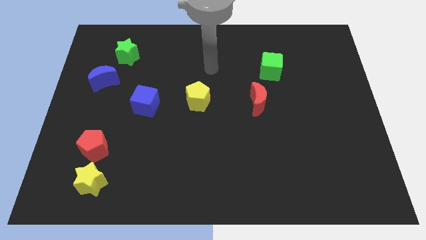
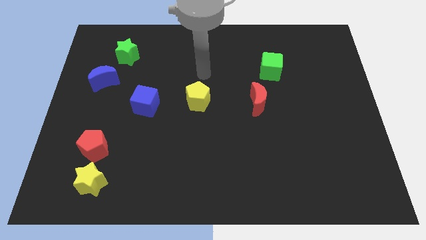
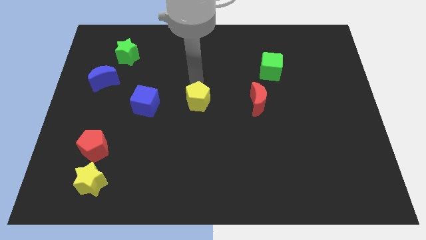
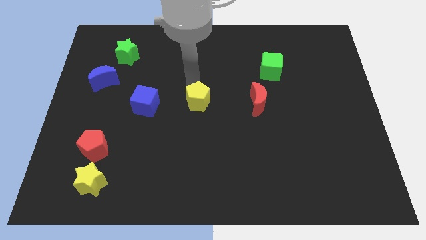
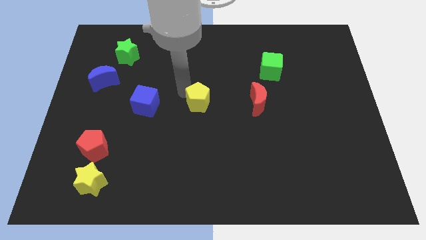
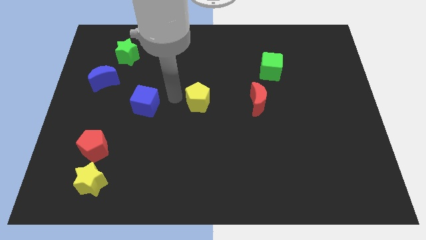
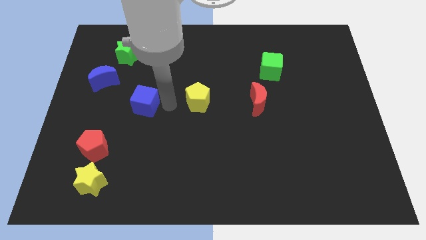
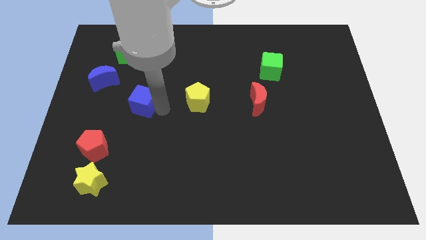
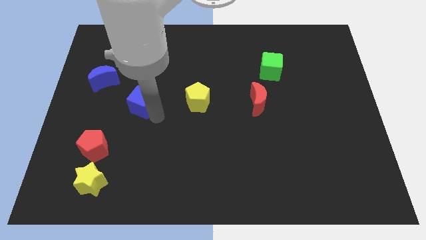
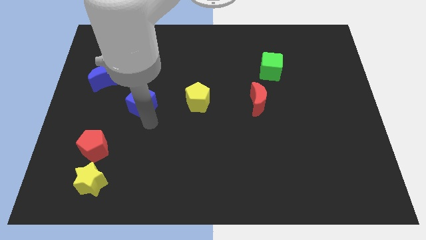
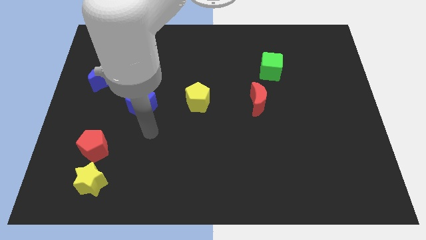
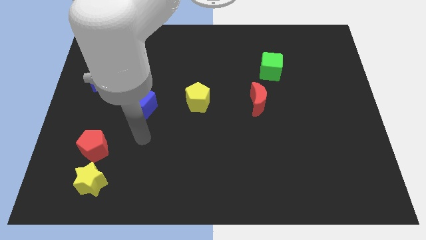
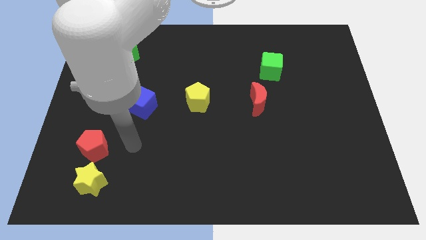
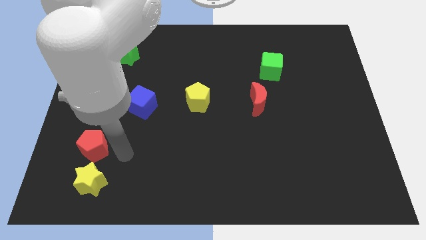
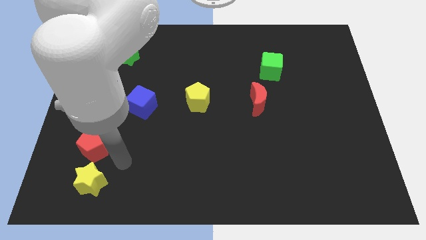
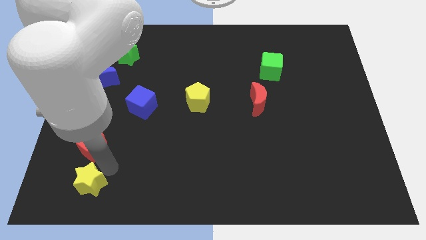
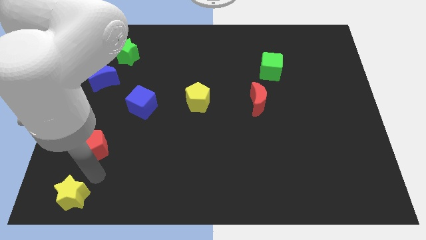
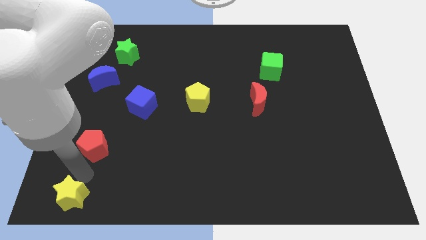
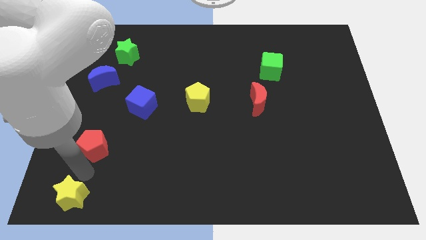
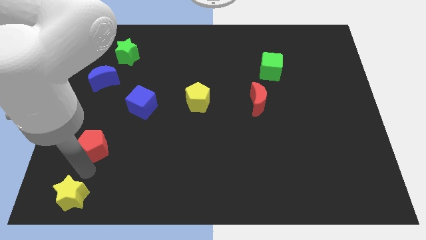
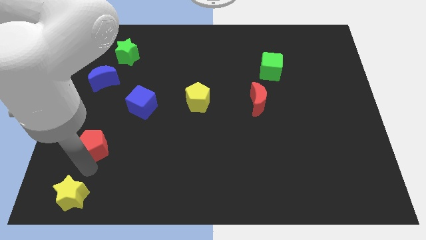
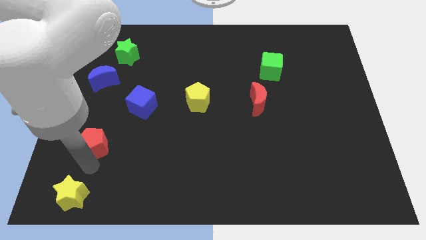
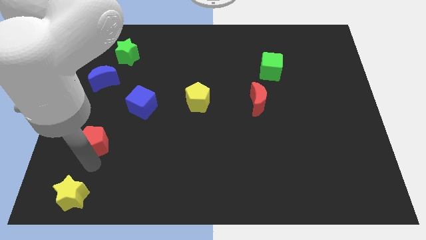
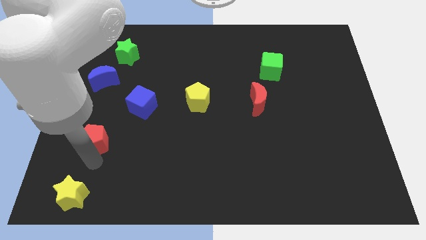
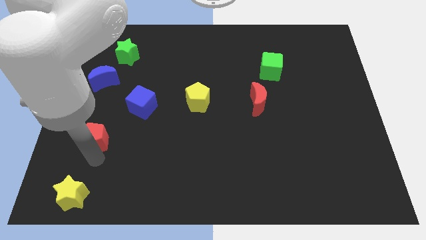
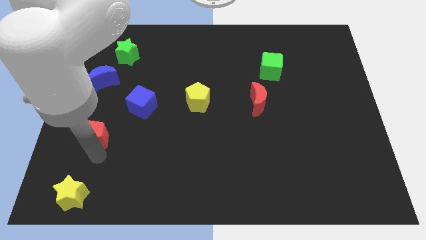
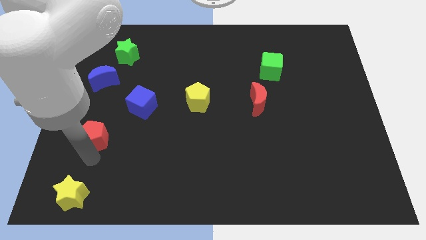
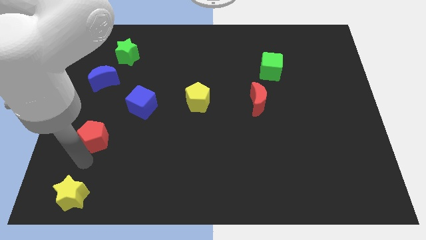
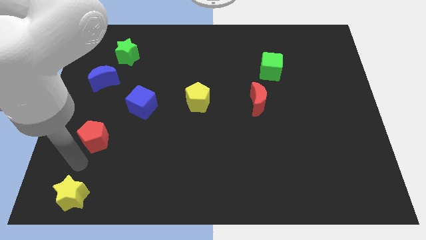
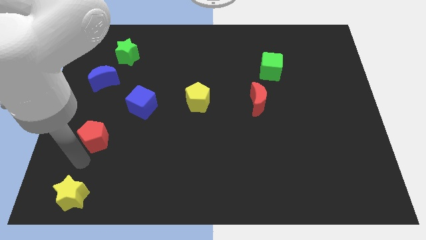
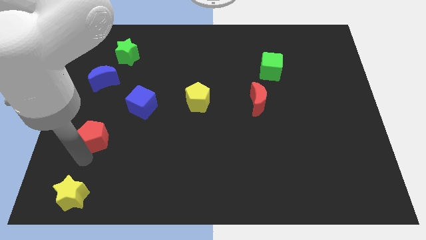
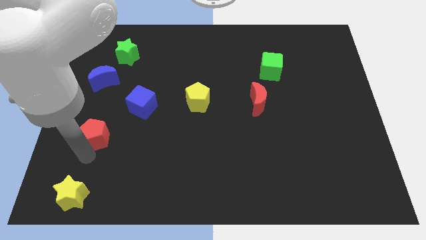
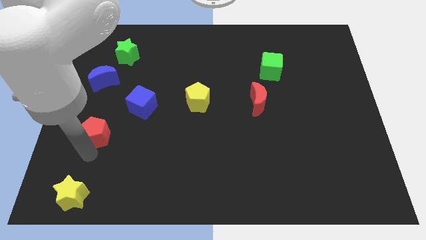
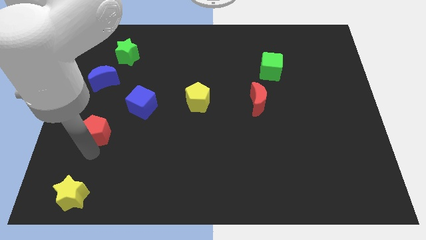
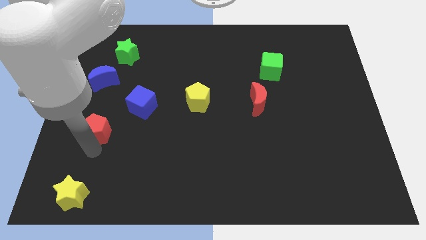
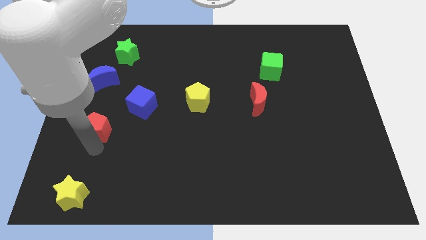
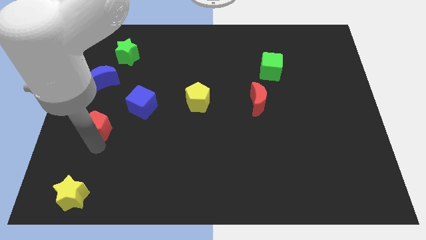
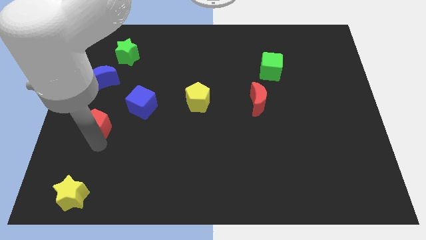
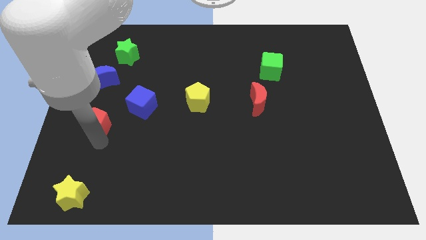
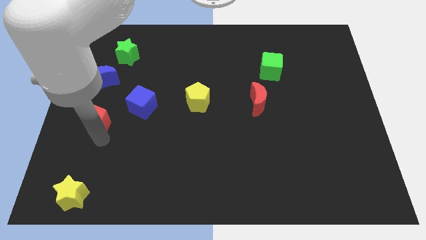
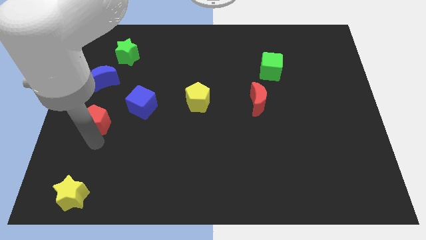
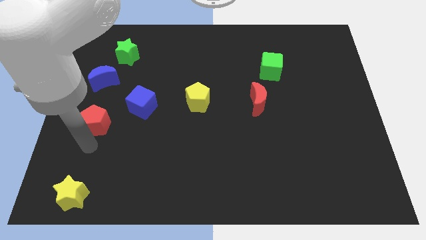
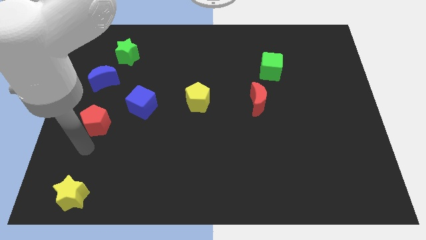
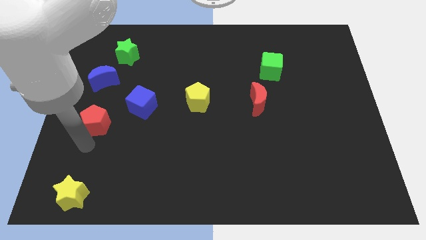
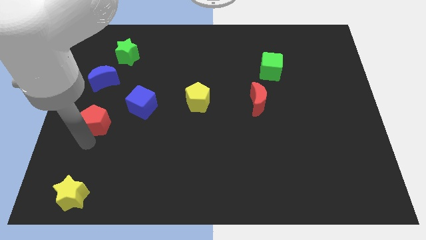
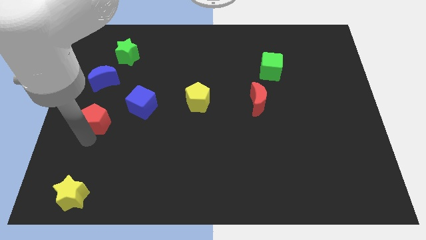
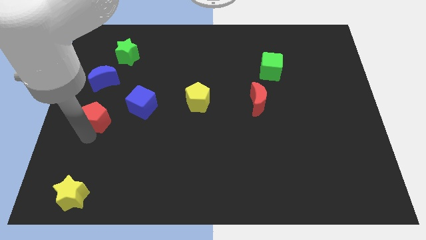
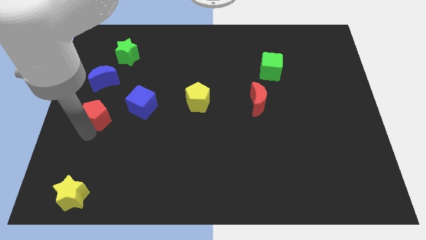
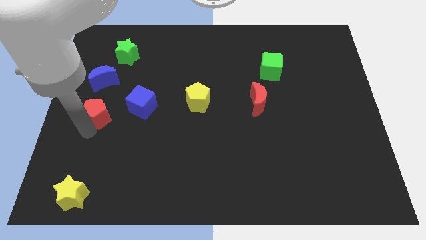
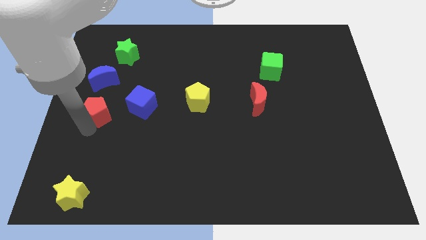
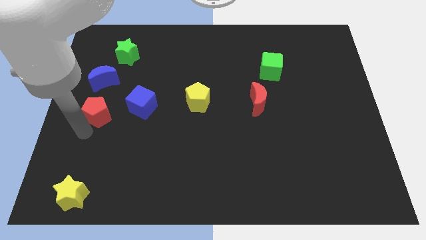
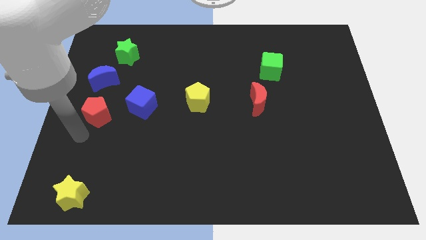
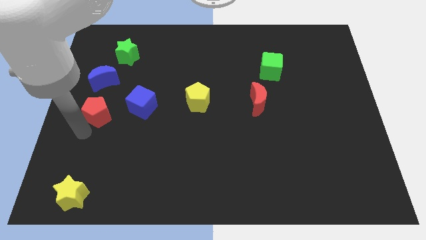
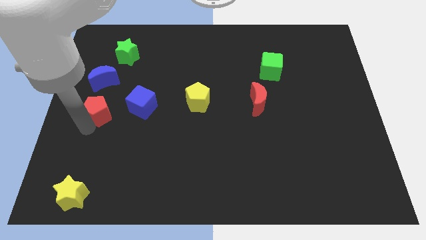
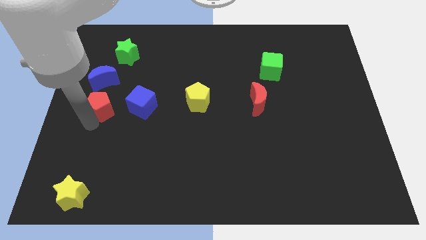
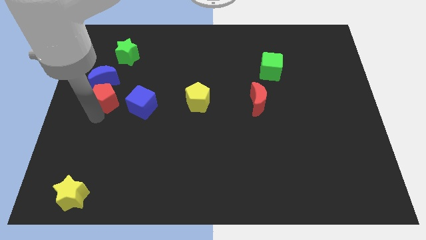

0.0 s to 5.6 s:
put the red pentagon to the bottom side of the green star

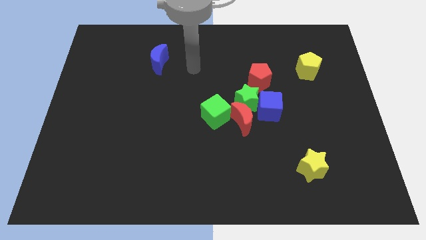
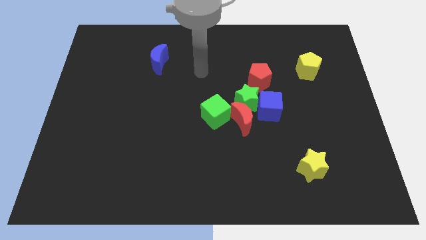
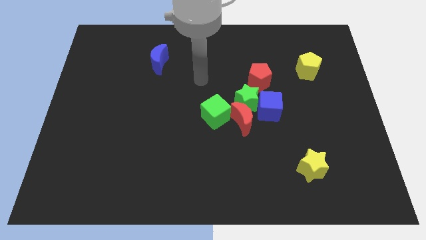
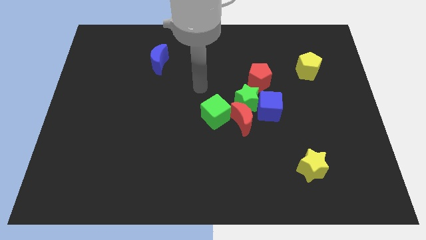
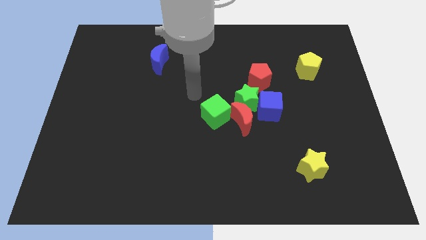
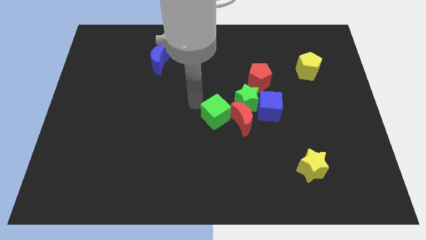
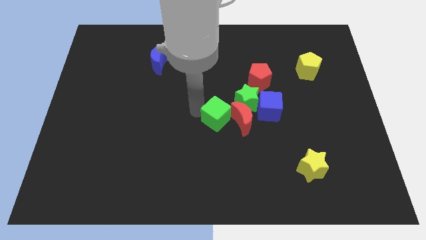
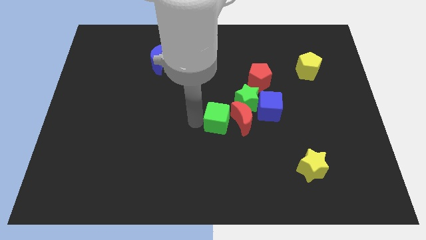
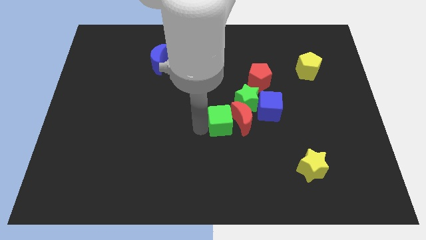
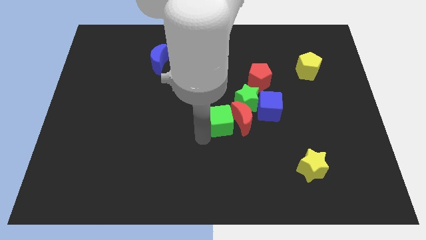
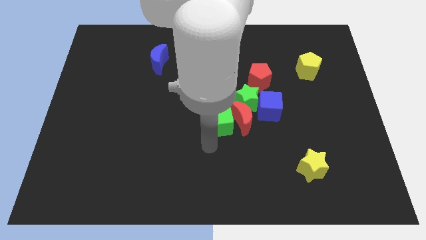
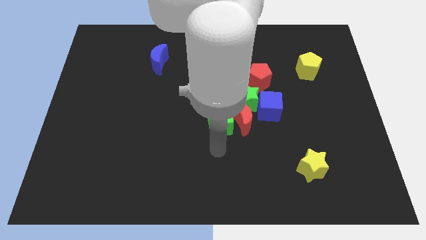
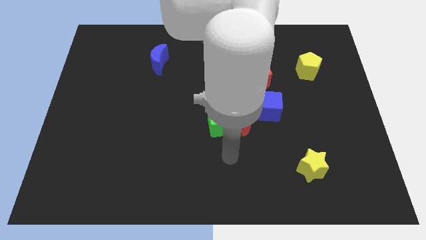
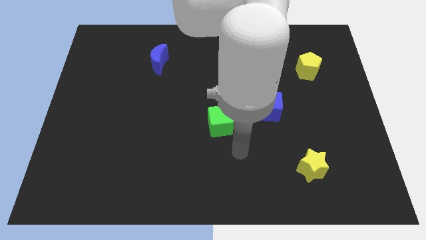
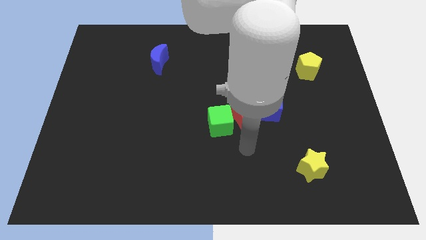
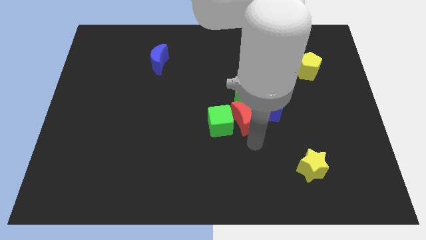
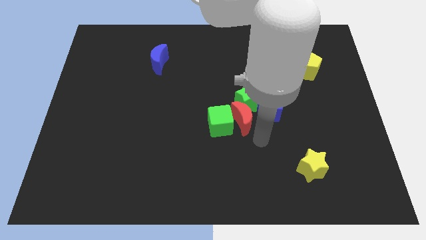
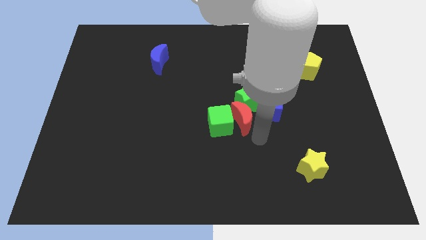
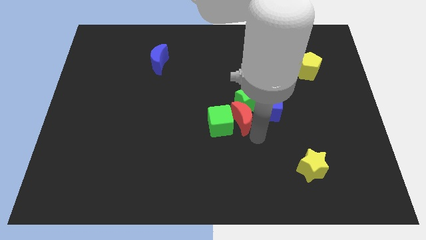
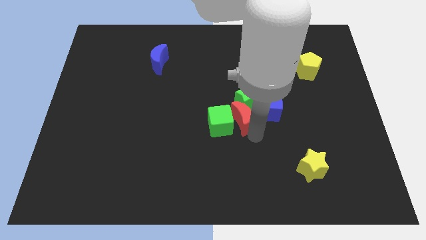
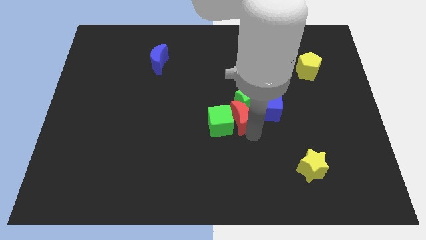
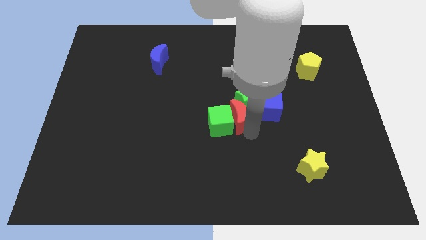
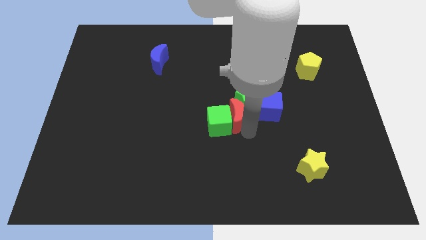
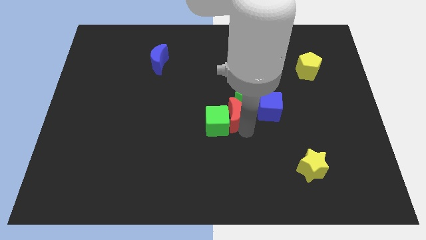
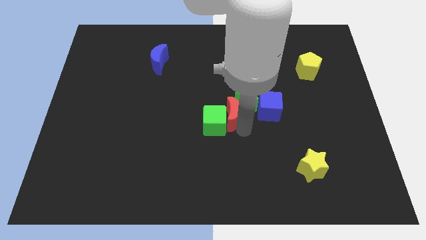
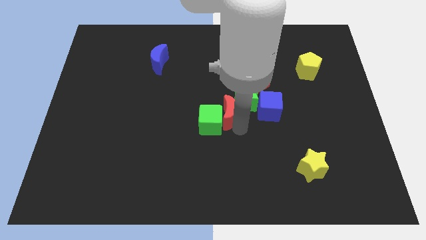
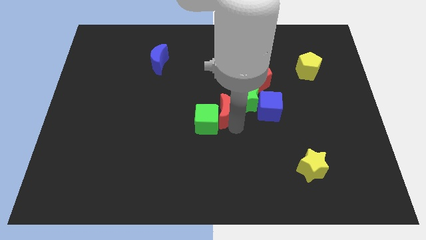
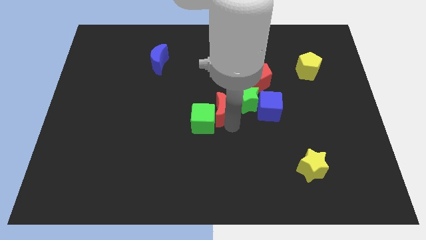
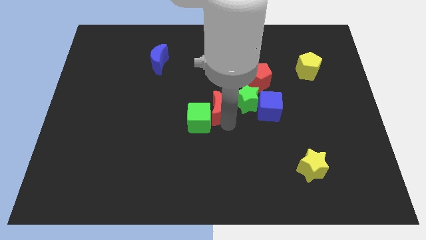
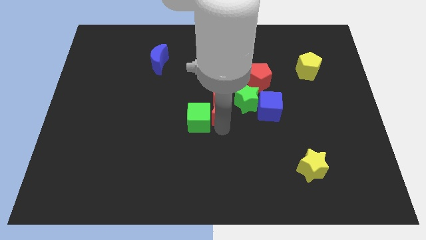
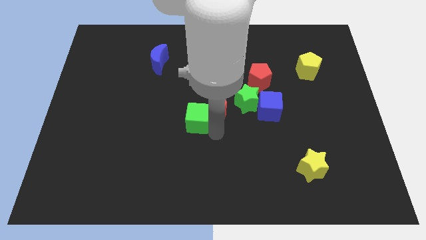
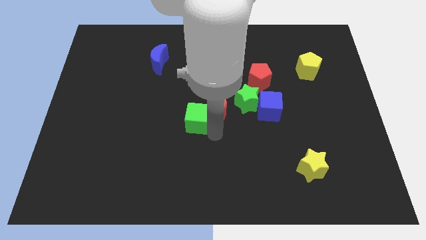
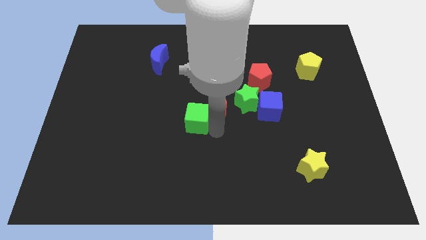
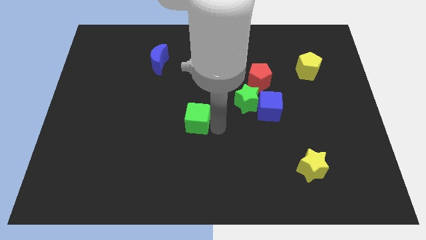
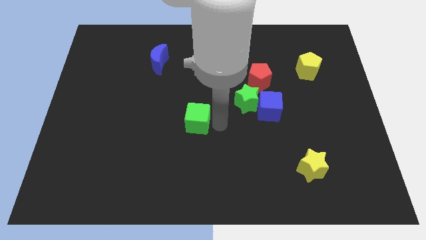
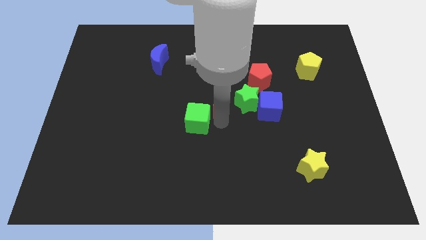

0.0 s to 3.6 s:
put the red moon to the top left of the green star
